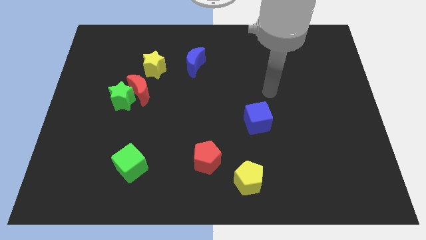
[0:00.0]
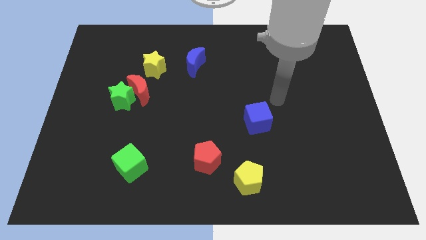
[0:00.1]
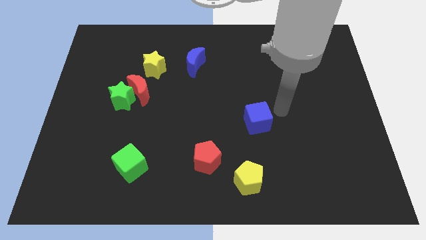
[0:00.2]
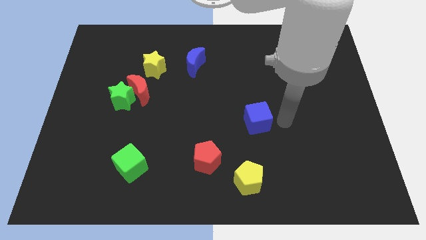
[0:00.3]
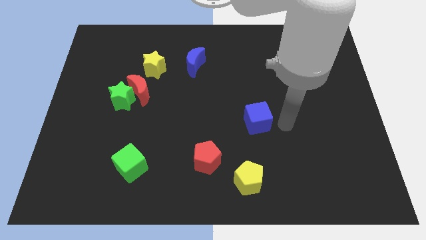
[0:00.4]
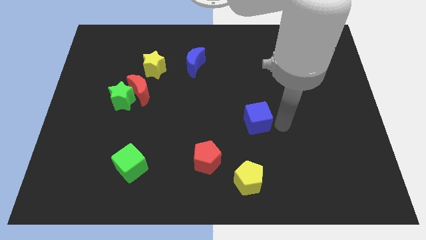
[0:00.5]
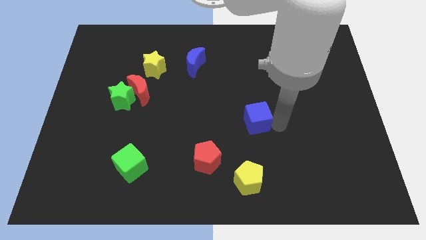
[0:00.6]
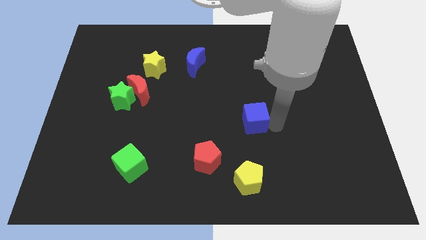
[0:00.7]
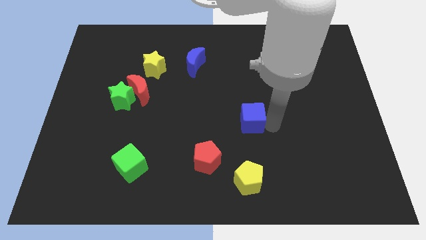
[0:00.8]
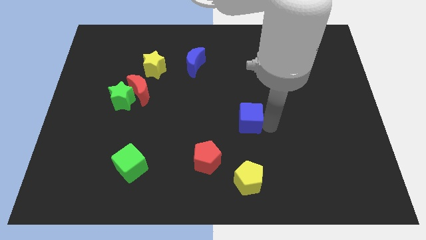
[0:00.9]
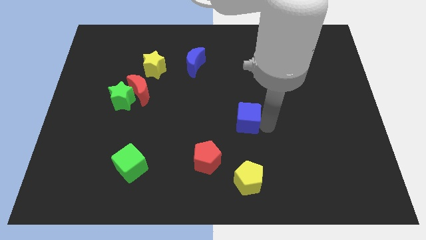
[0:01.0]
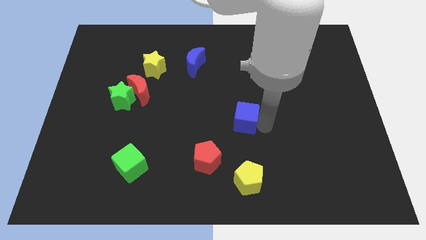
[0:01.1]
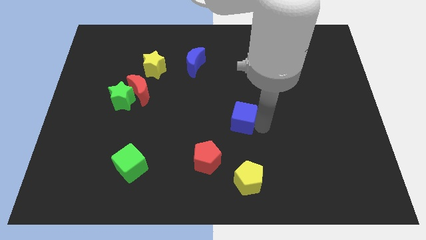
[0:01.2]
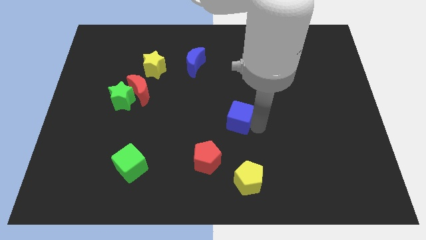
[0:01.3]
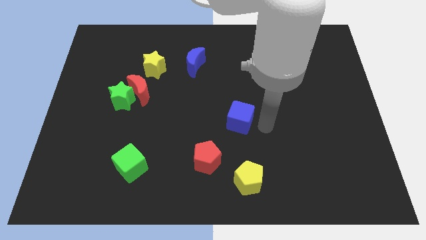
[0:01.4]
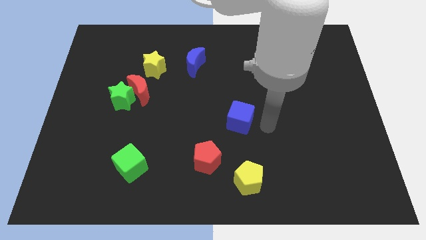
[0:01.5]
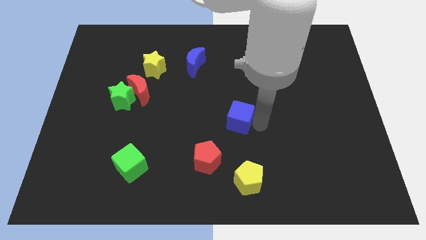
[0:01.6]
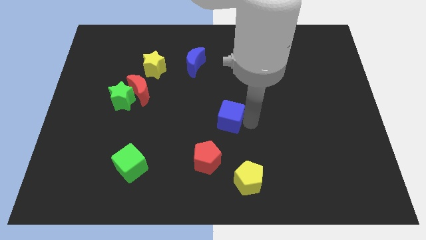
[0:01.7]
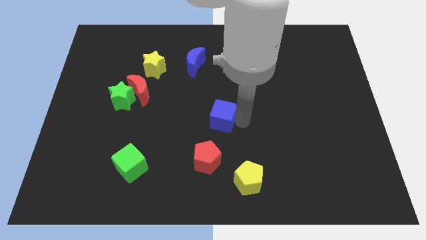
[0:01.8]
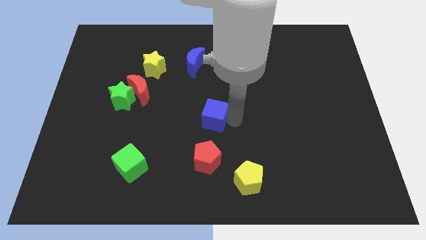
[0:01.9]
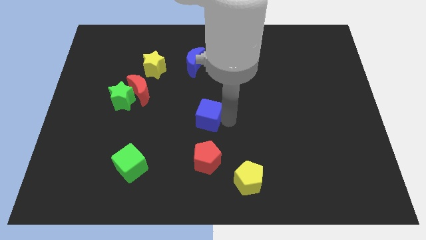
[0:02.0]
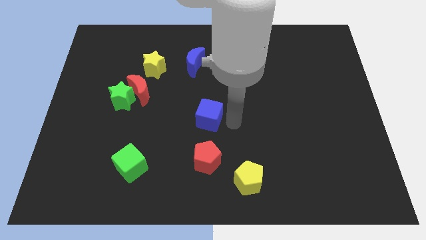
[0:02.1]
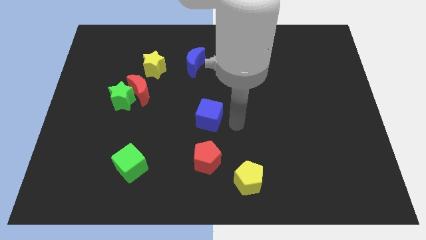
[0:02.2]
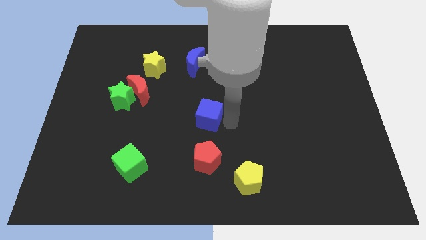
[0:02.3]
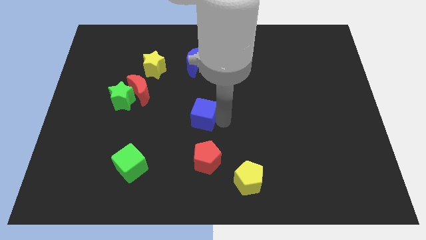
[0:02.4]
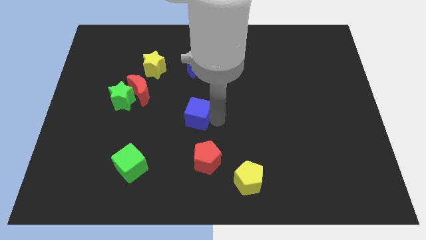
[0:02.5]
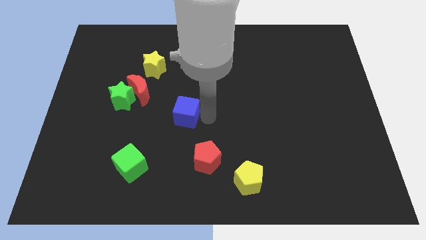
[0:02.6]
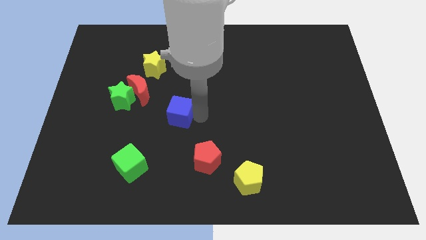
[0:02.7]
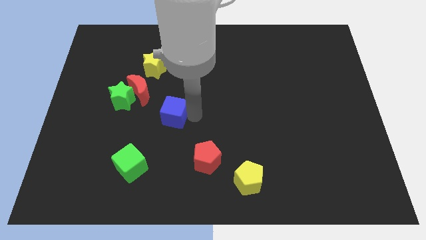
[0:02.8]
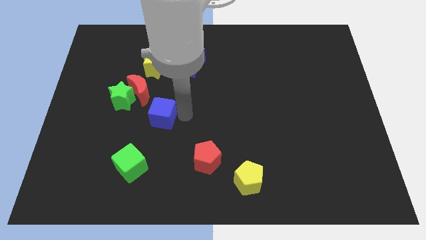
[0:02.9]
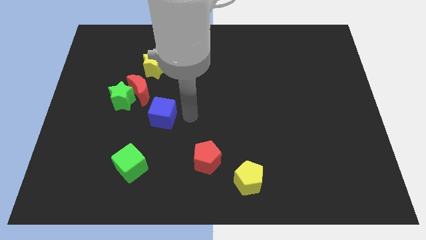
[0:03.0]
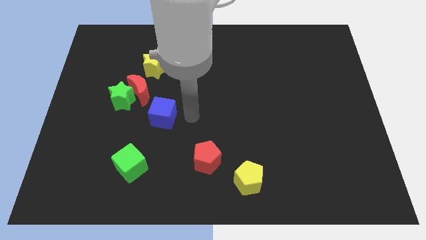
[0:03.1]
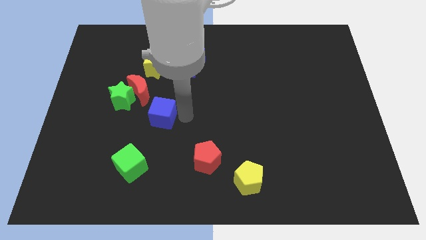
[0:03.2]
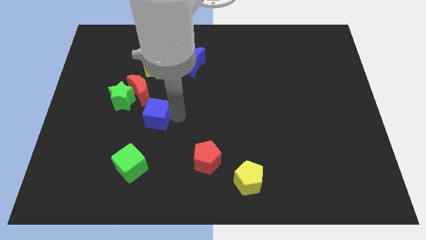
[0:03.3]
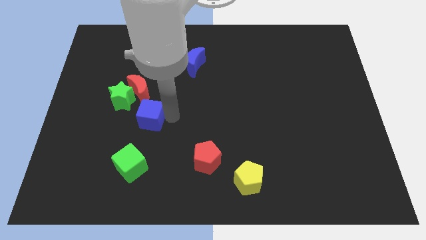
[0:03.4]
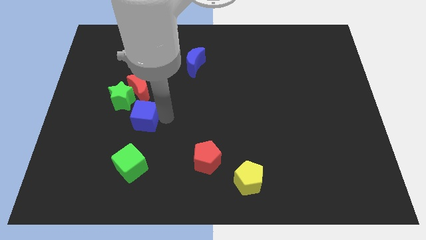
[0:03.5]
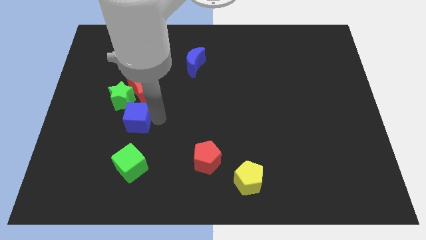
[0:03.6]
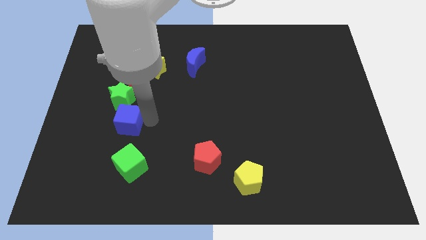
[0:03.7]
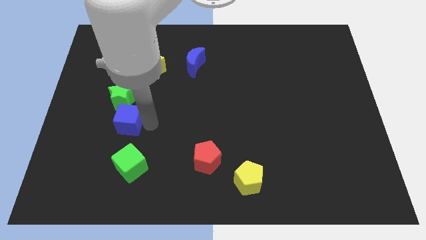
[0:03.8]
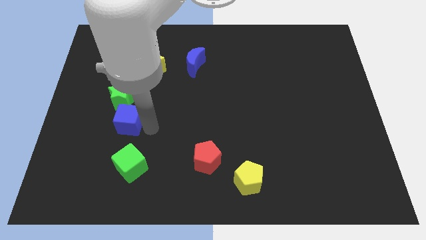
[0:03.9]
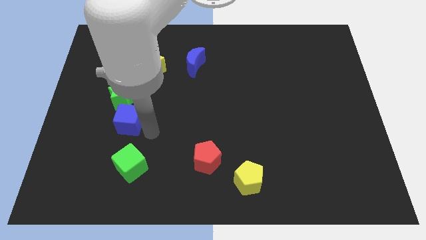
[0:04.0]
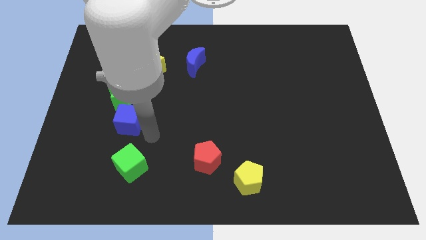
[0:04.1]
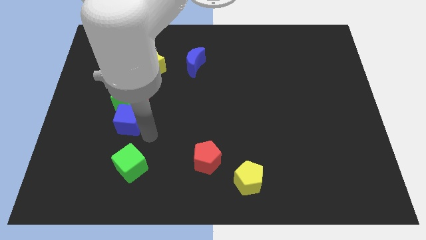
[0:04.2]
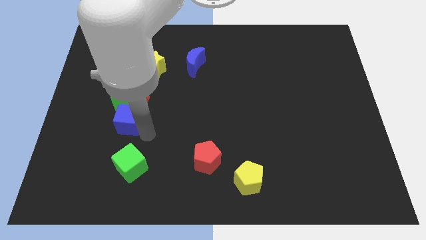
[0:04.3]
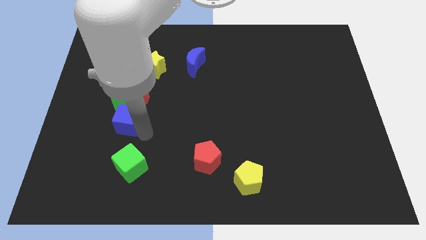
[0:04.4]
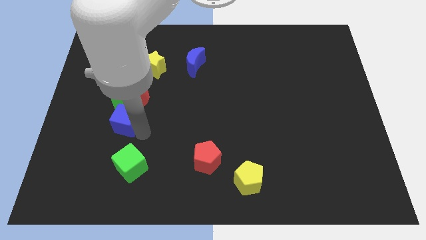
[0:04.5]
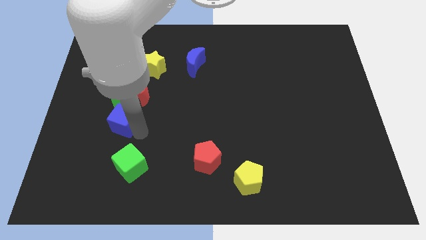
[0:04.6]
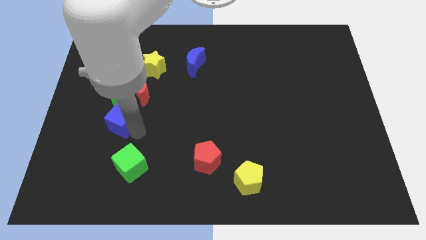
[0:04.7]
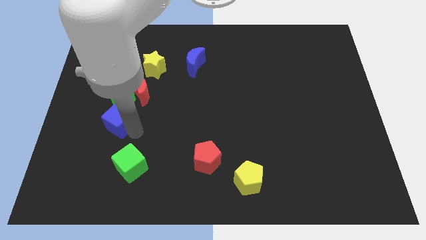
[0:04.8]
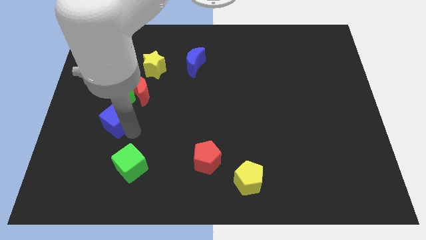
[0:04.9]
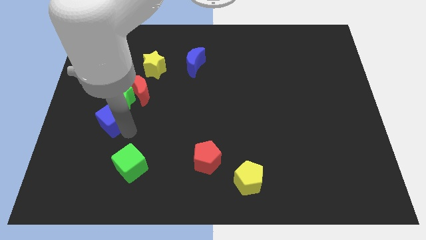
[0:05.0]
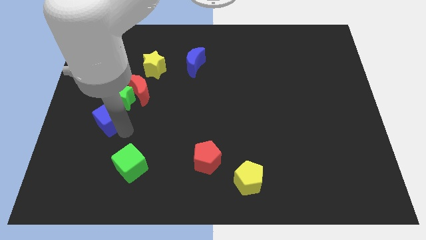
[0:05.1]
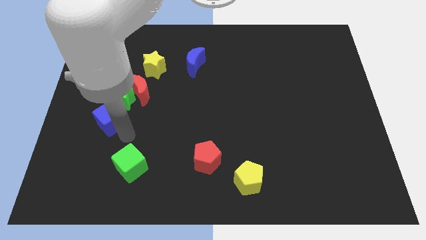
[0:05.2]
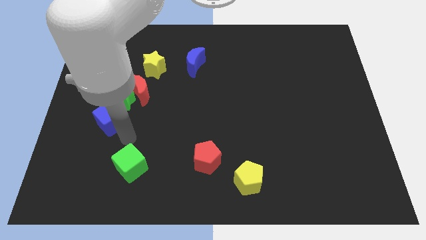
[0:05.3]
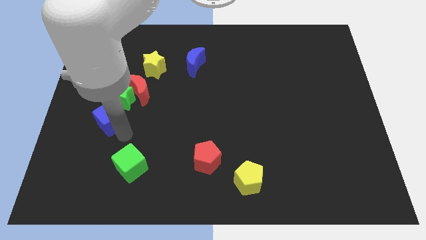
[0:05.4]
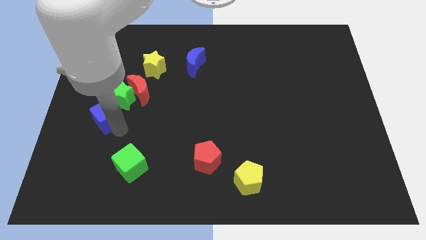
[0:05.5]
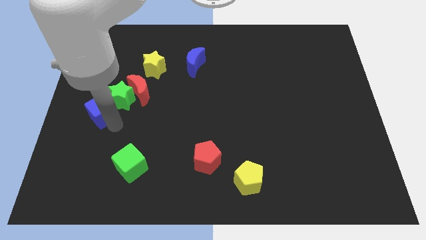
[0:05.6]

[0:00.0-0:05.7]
move the blue cube to the left side of the board

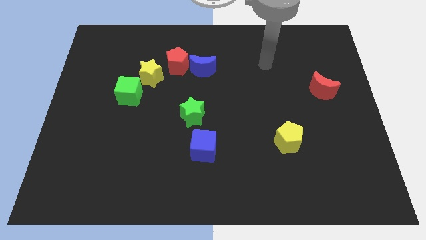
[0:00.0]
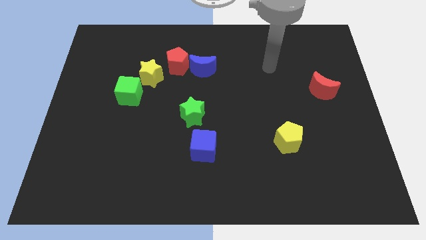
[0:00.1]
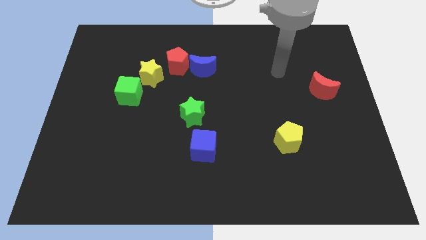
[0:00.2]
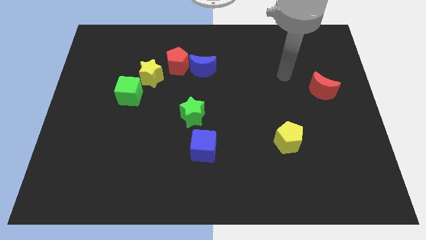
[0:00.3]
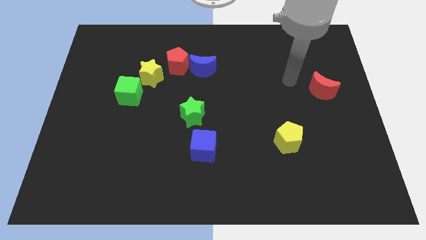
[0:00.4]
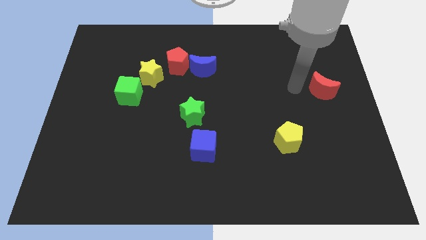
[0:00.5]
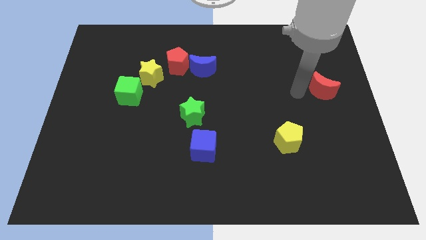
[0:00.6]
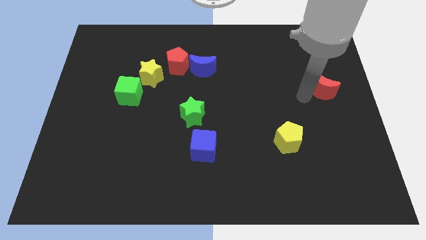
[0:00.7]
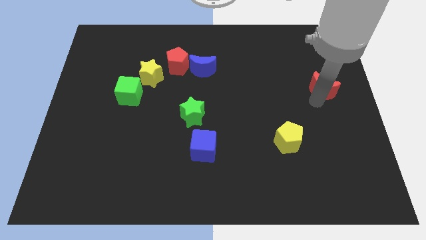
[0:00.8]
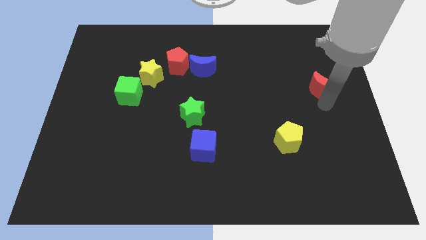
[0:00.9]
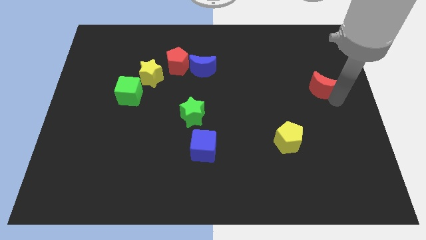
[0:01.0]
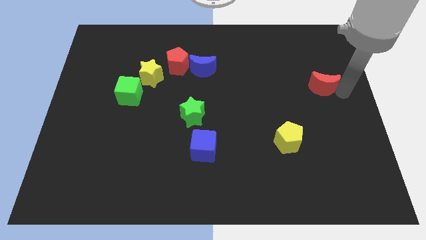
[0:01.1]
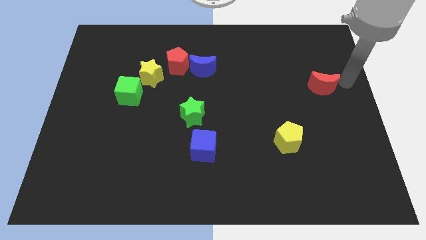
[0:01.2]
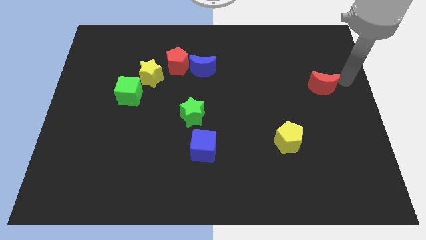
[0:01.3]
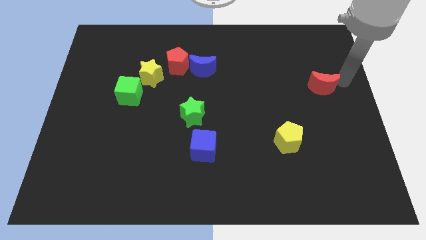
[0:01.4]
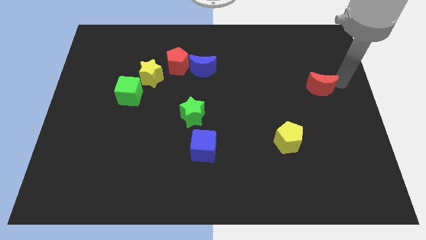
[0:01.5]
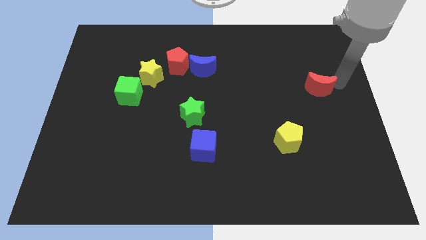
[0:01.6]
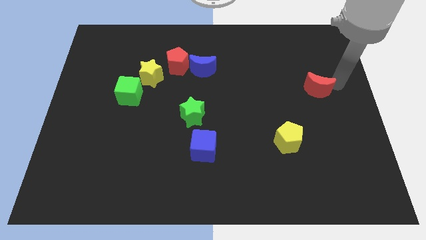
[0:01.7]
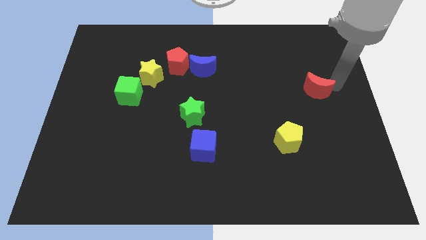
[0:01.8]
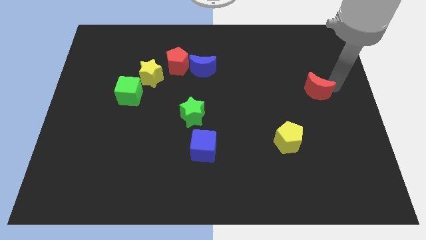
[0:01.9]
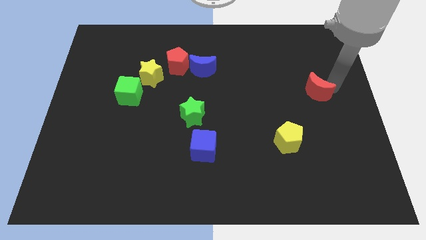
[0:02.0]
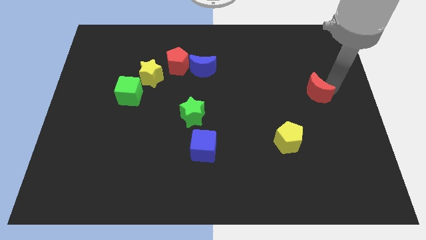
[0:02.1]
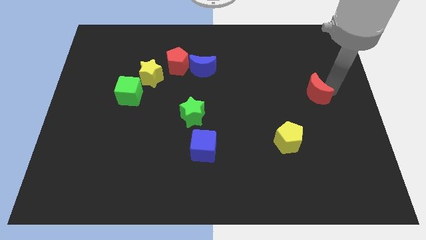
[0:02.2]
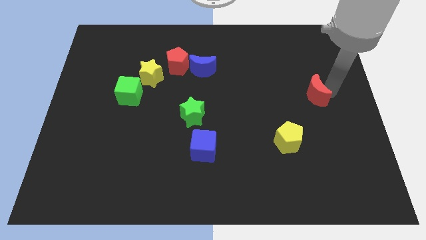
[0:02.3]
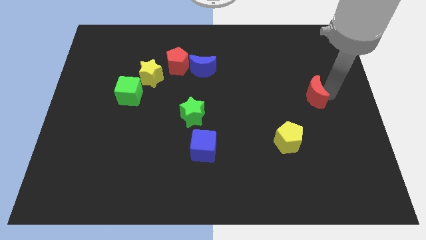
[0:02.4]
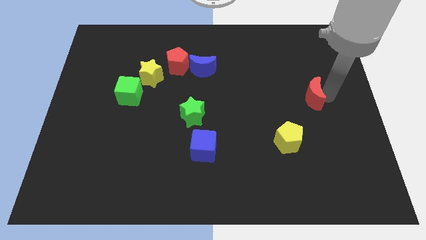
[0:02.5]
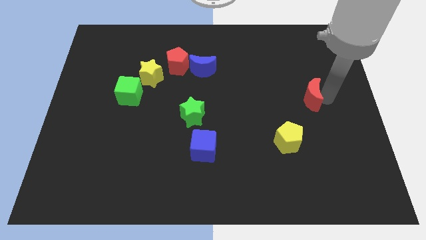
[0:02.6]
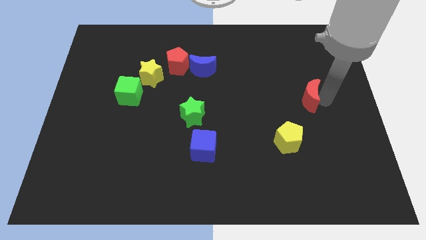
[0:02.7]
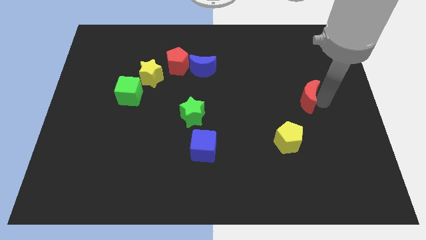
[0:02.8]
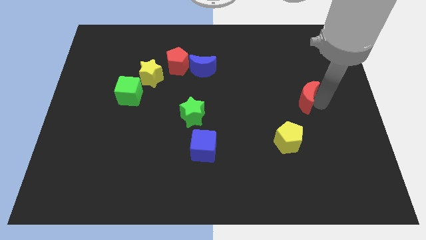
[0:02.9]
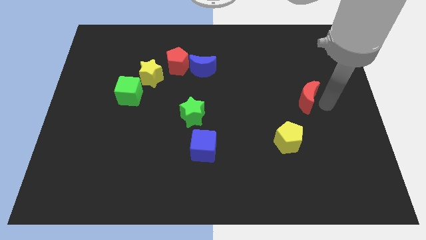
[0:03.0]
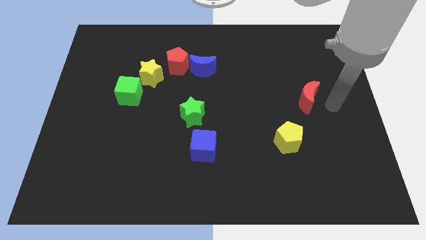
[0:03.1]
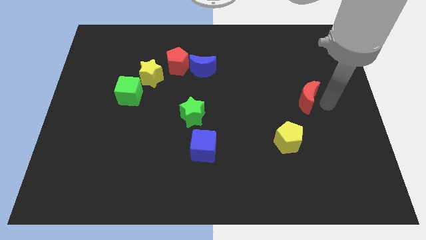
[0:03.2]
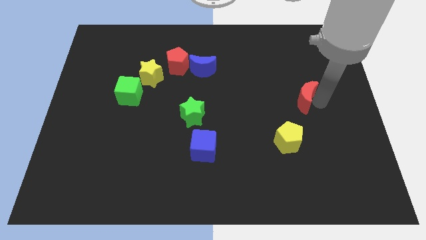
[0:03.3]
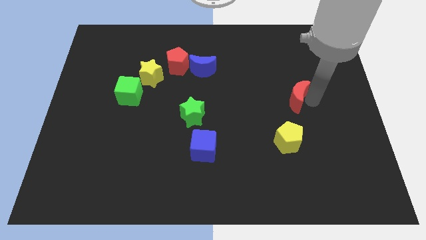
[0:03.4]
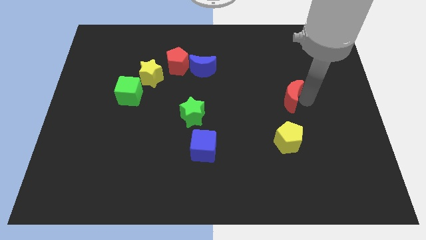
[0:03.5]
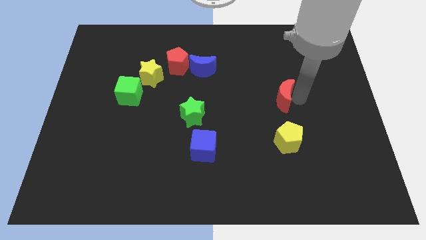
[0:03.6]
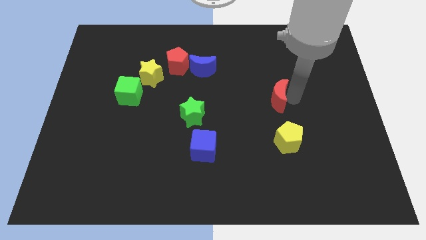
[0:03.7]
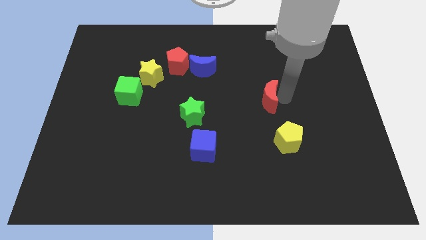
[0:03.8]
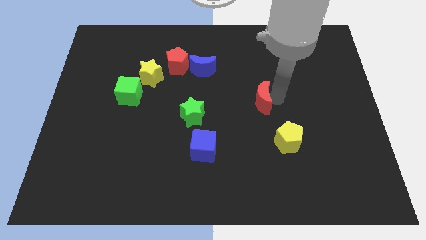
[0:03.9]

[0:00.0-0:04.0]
slide the red moon to the center
